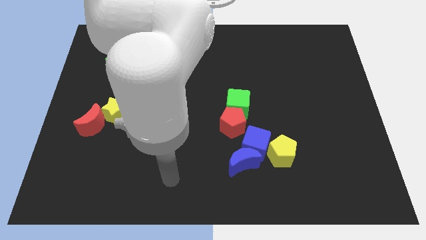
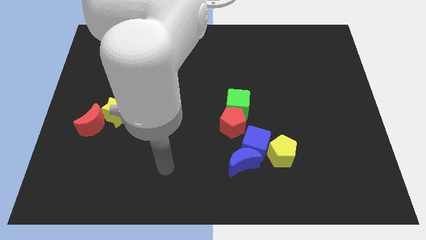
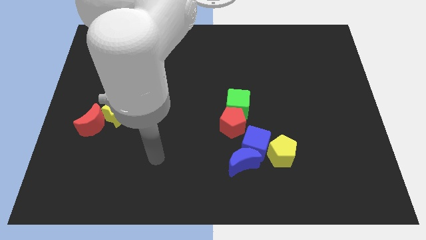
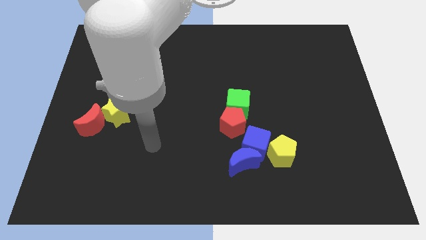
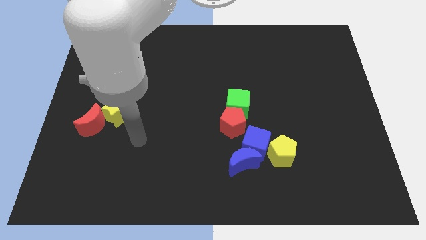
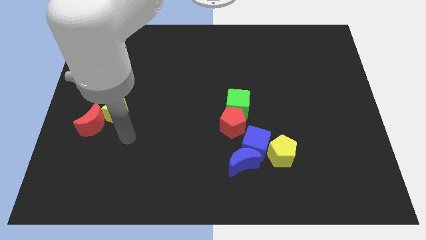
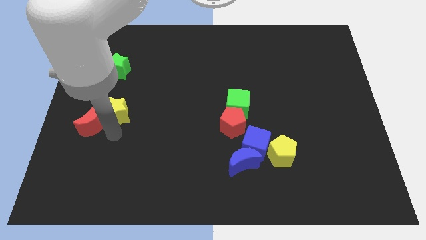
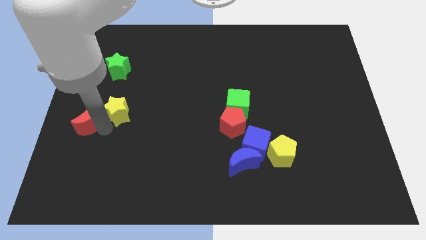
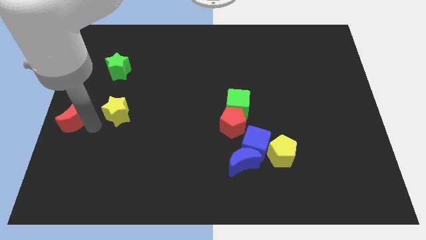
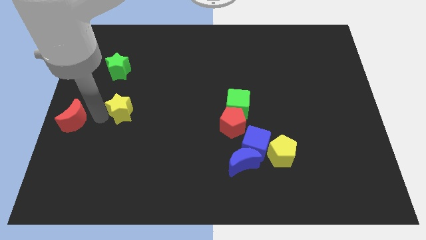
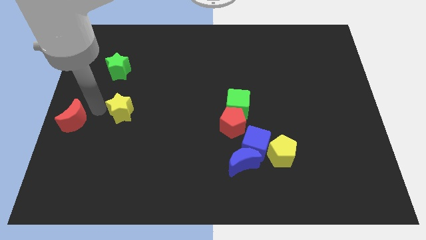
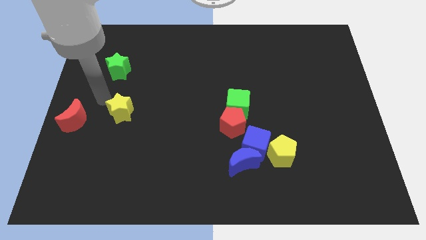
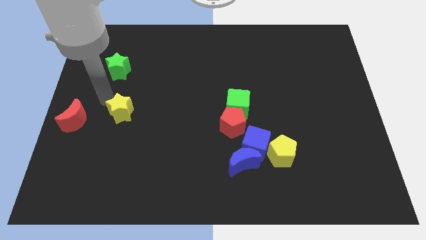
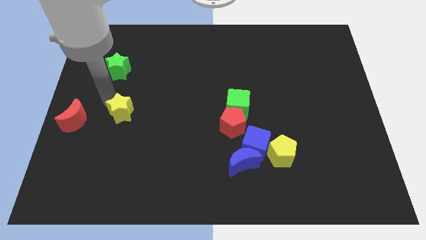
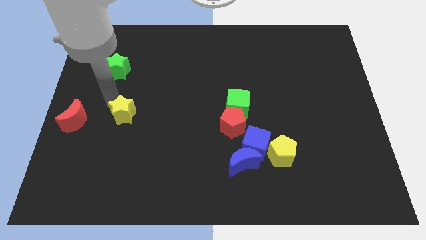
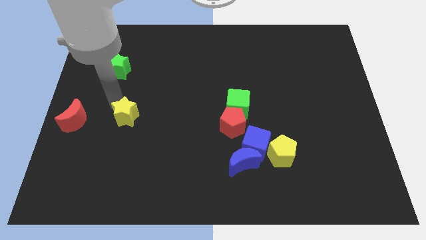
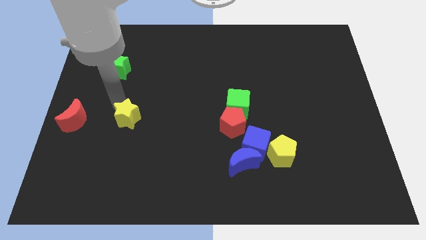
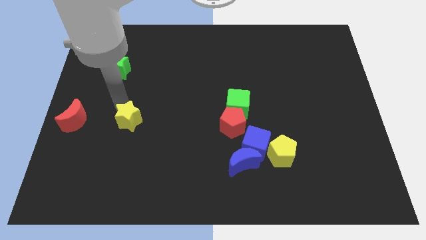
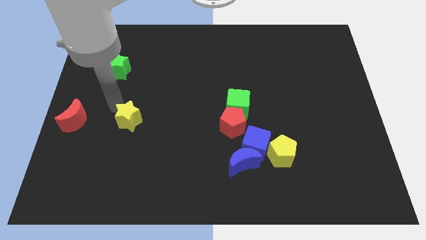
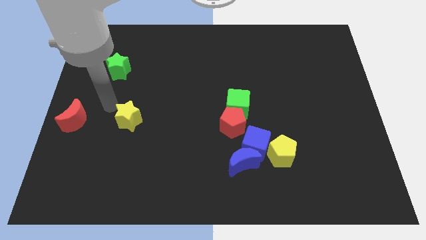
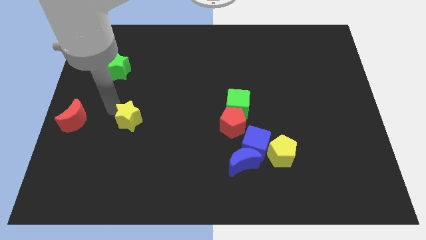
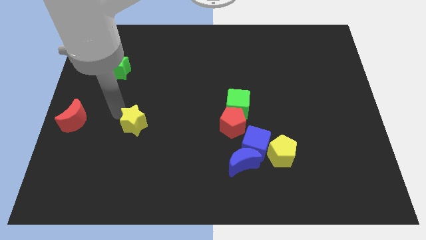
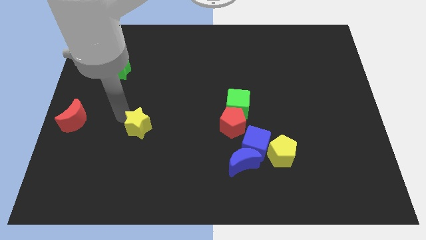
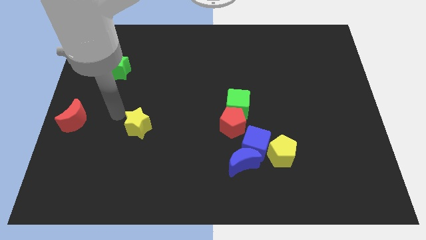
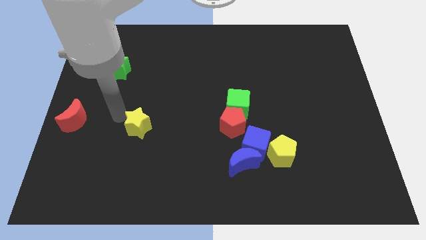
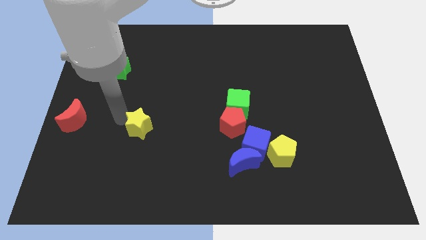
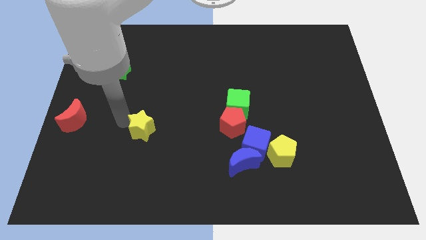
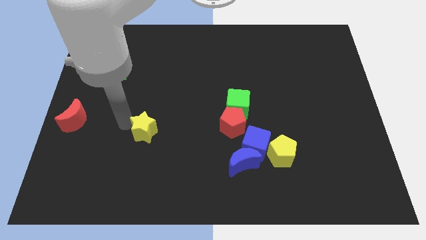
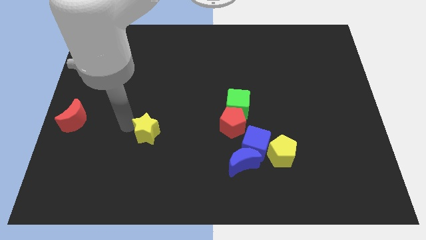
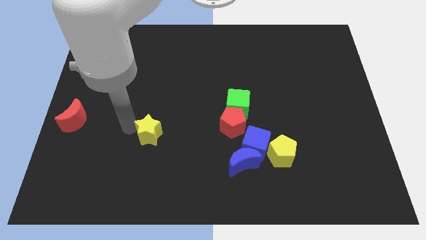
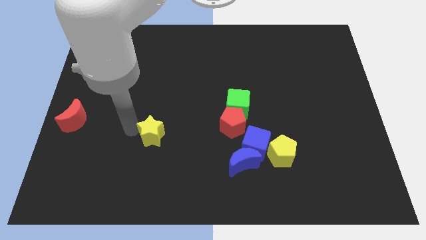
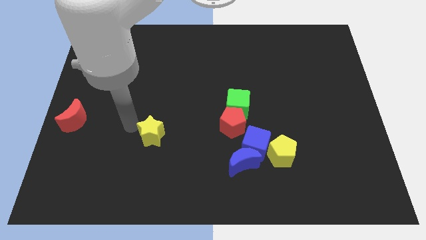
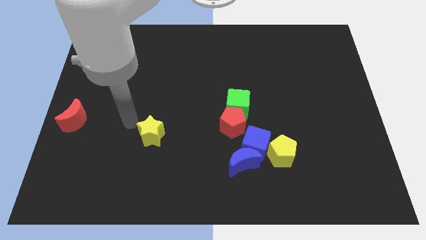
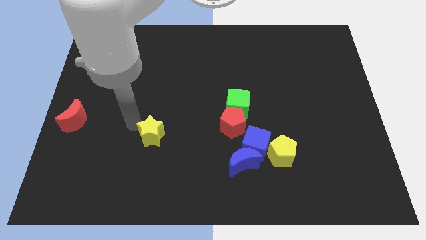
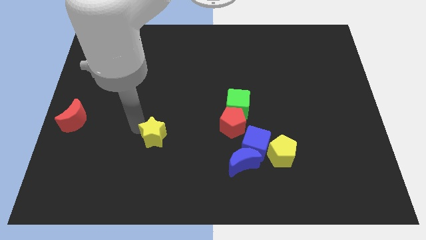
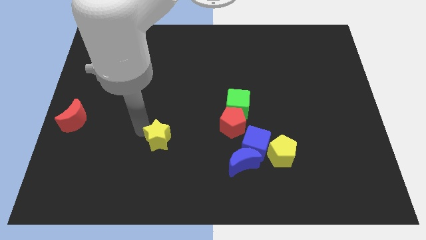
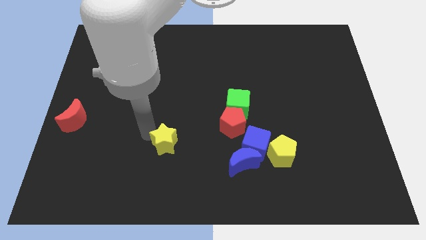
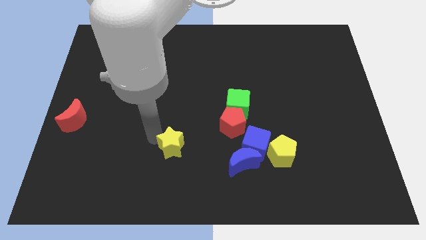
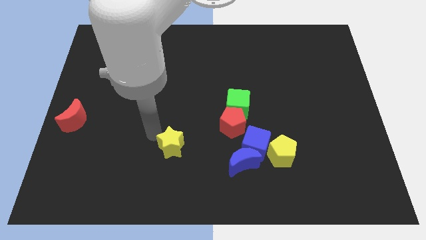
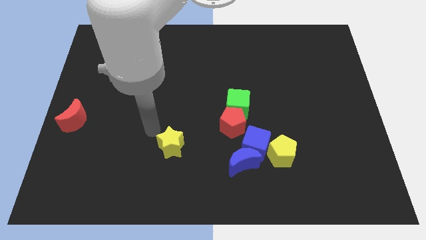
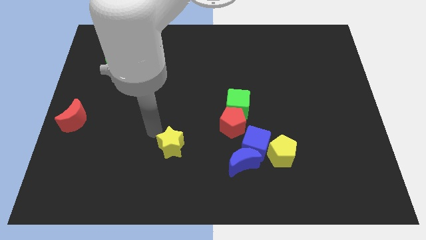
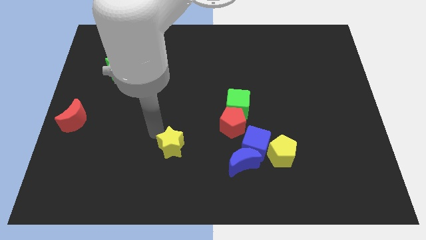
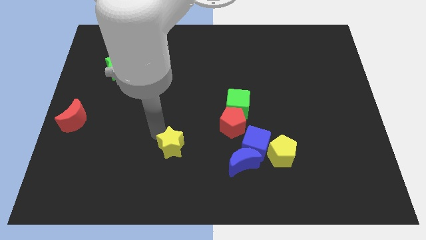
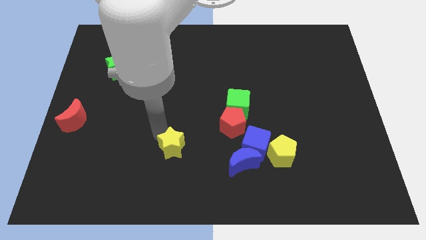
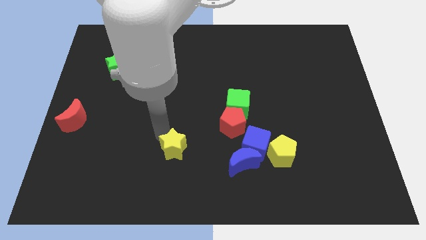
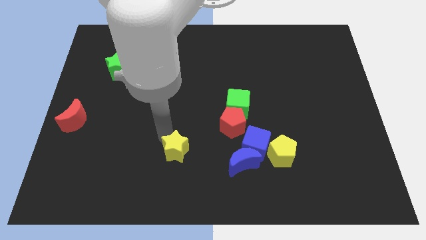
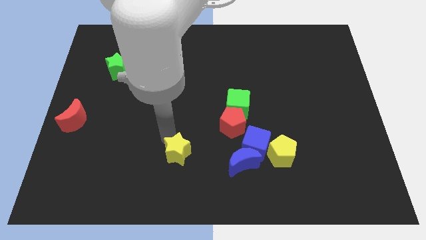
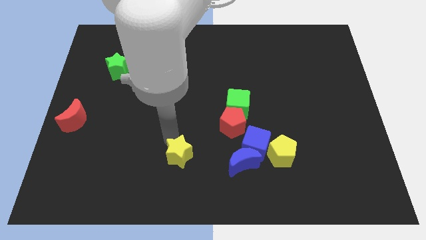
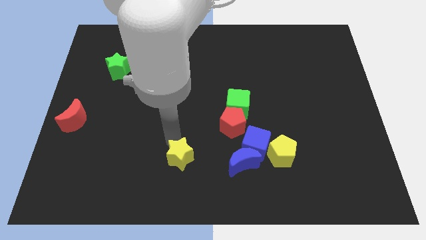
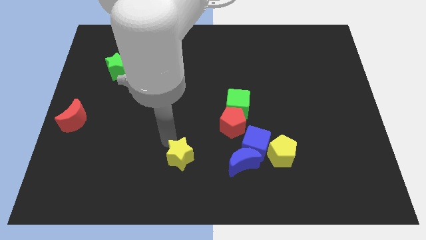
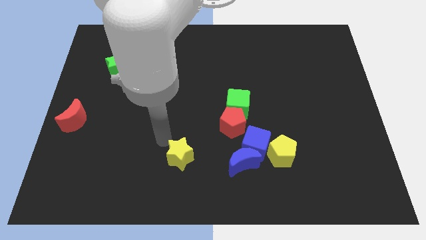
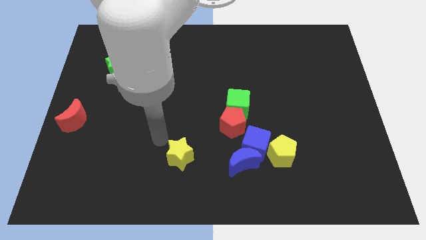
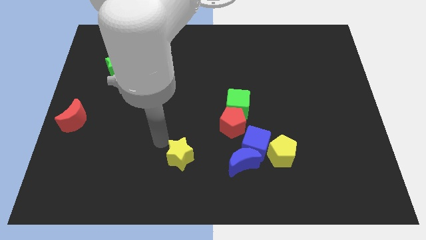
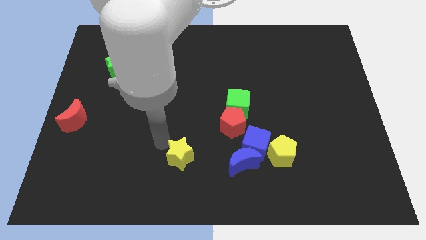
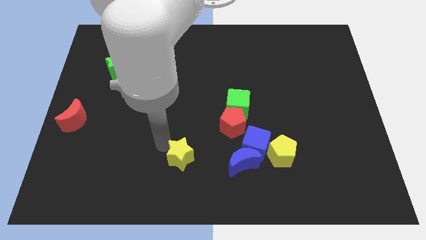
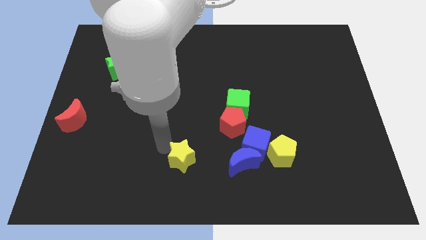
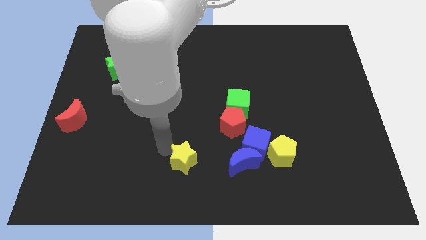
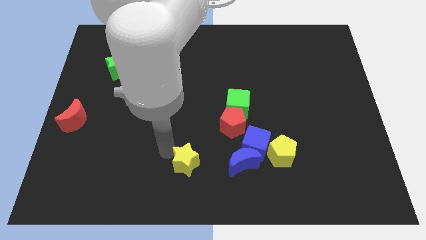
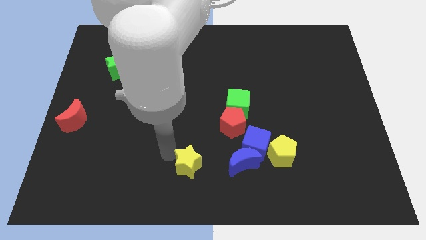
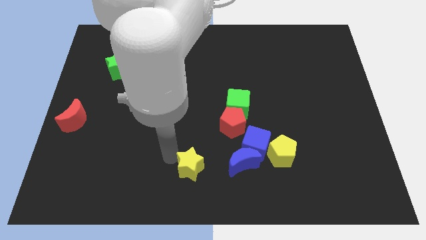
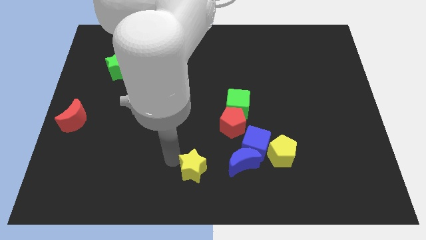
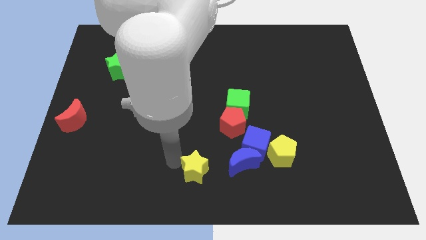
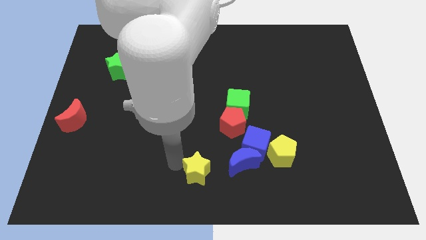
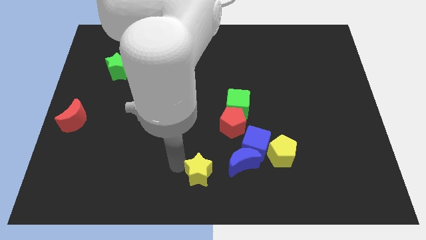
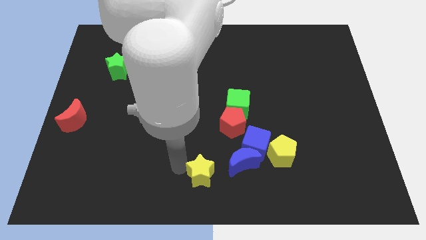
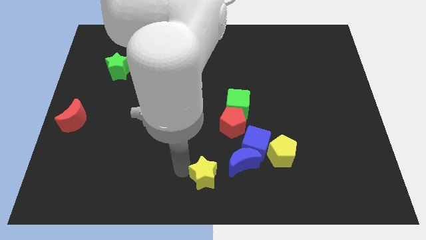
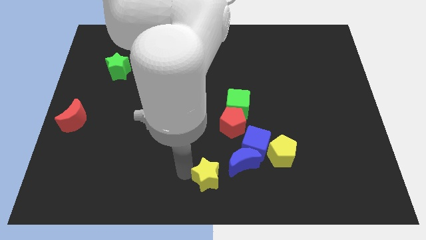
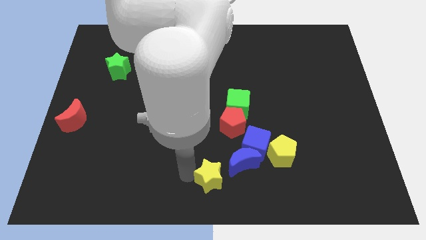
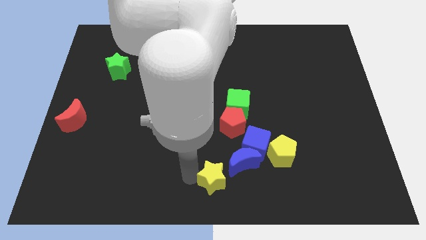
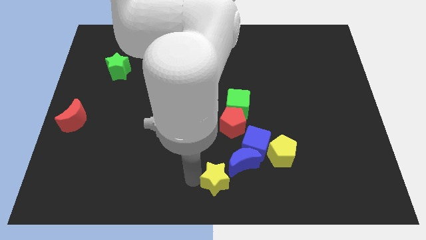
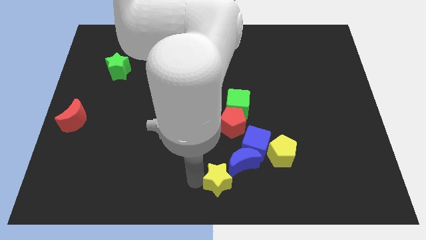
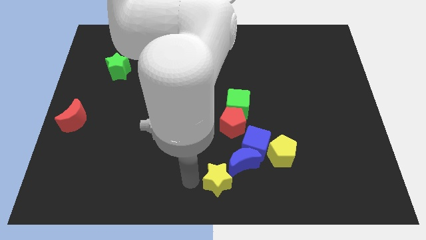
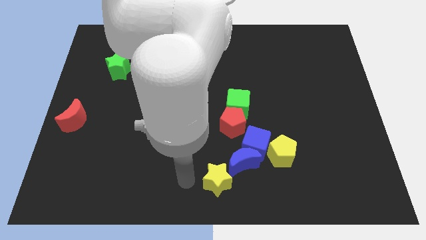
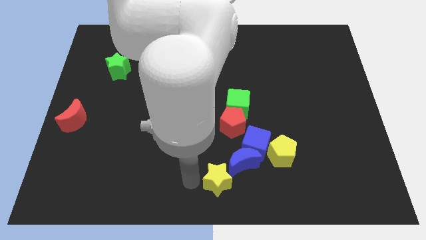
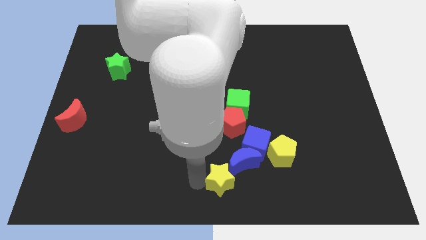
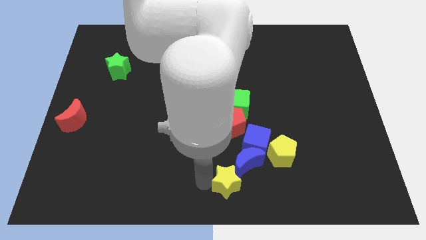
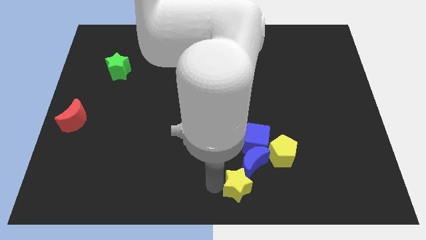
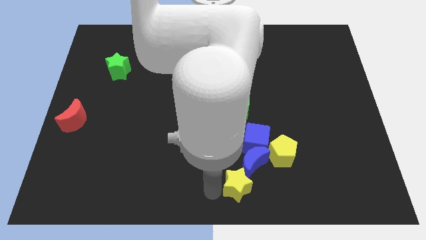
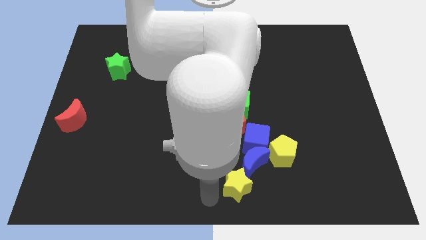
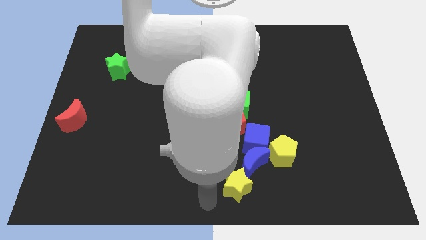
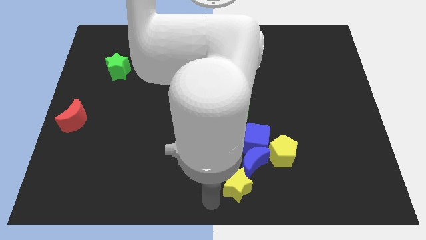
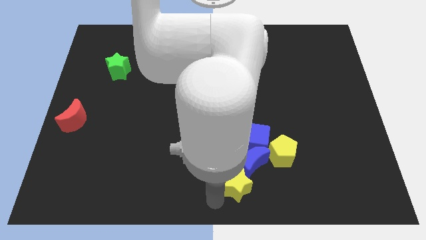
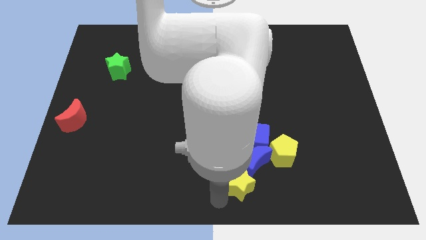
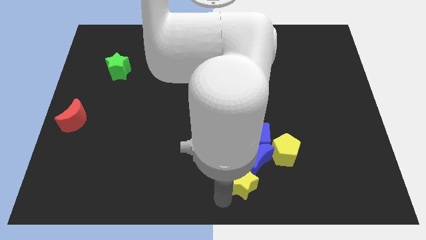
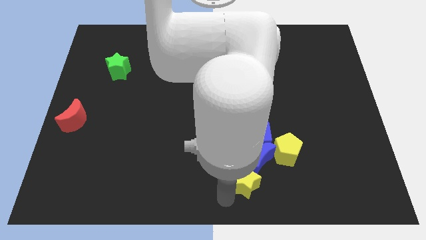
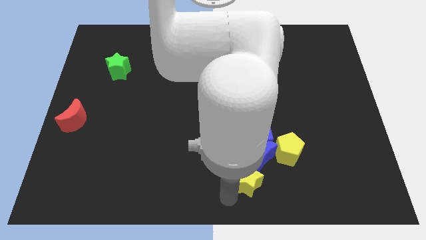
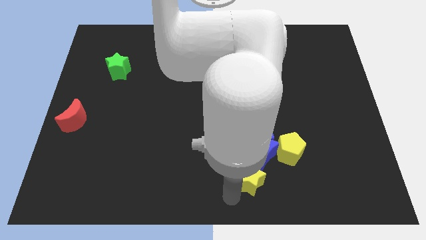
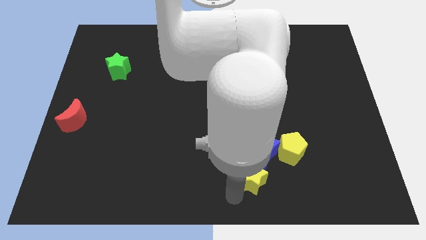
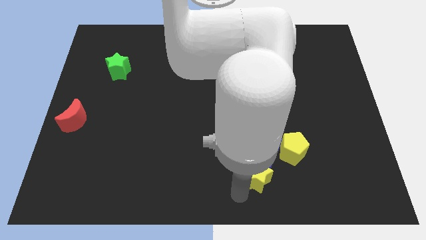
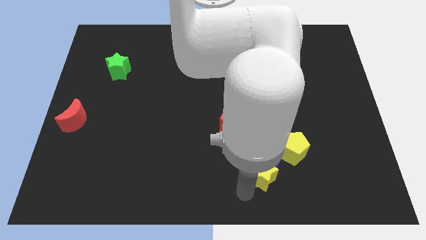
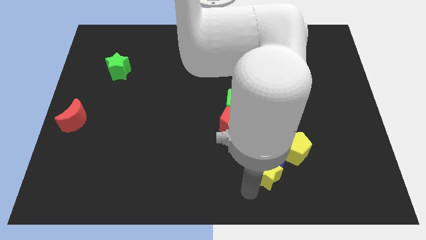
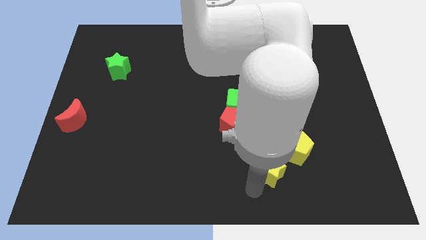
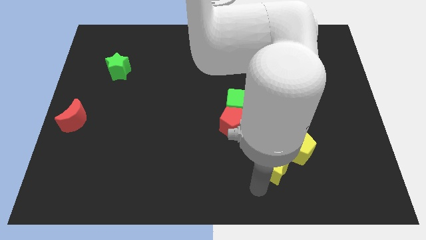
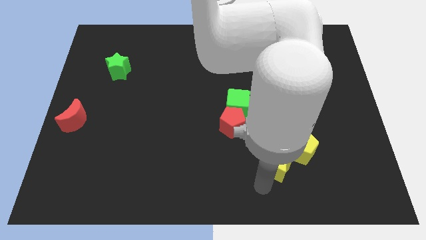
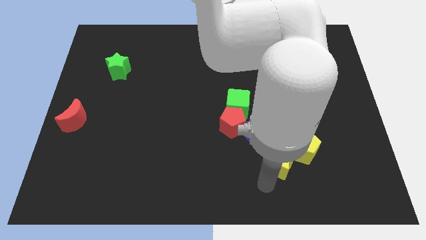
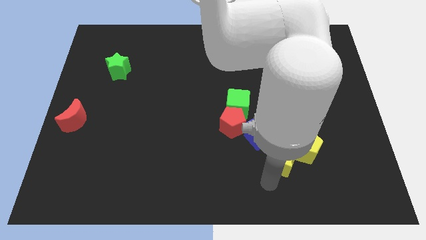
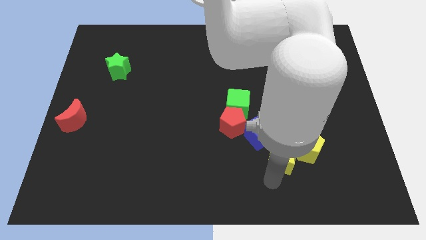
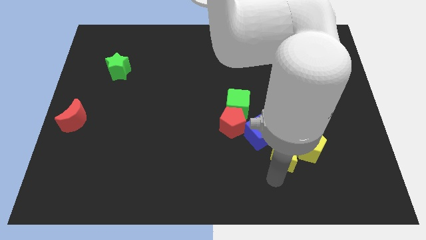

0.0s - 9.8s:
put the yellow star next to the yellow pentagon
